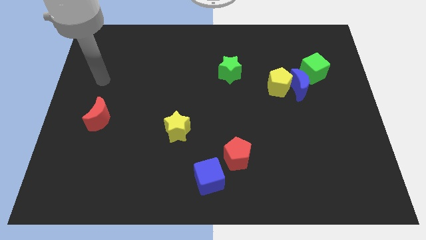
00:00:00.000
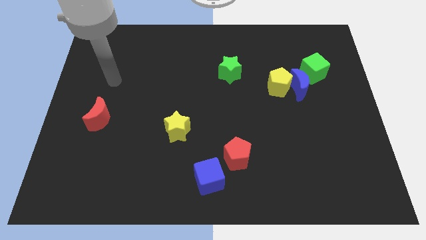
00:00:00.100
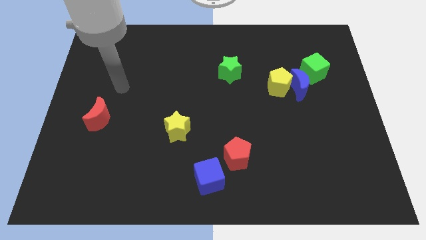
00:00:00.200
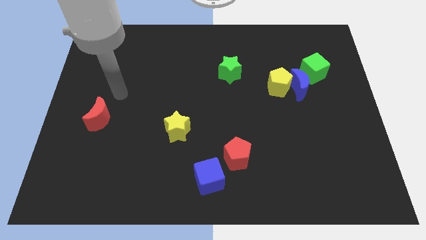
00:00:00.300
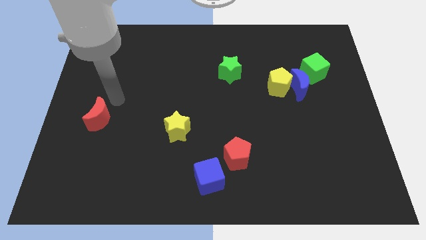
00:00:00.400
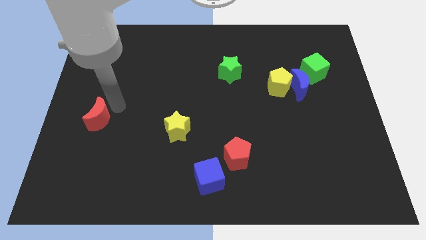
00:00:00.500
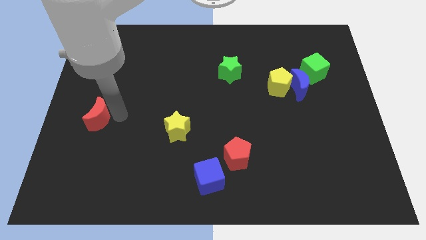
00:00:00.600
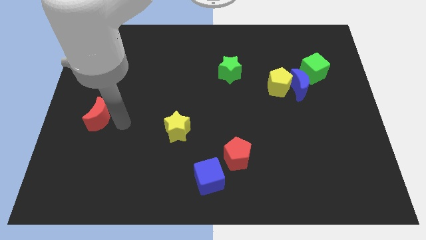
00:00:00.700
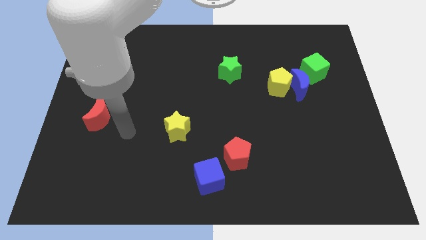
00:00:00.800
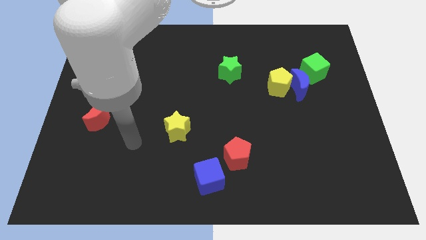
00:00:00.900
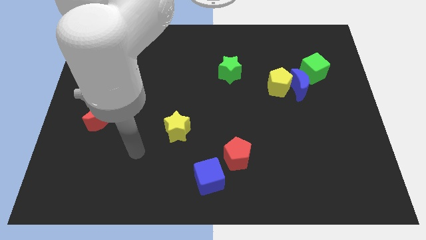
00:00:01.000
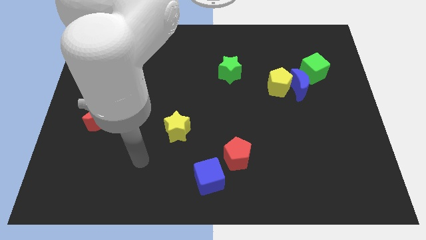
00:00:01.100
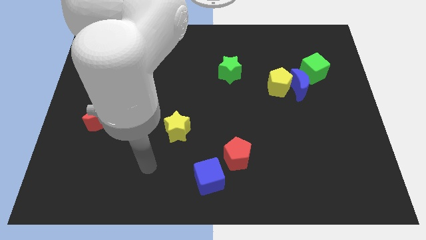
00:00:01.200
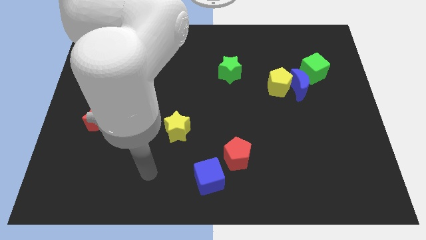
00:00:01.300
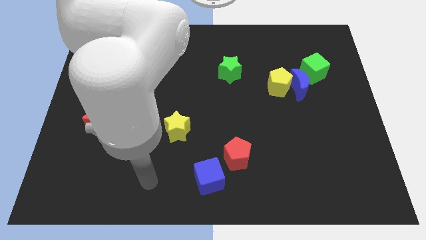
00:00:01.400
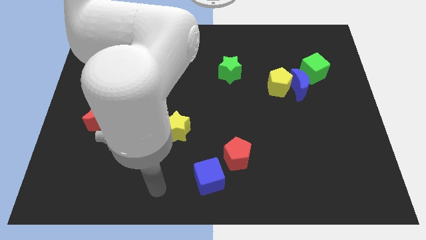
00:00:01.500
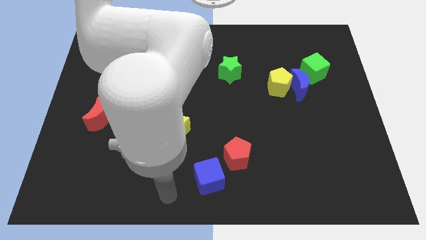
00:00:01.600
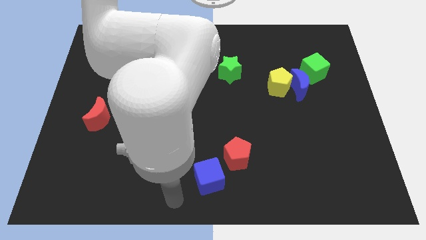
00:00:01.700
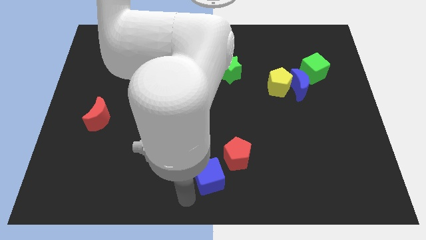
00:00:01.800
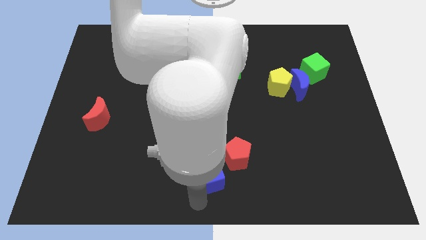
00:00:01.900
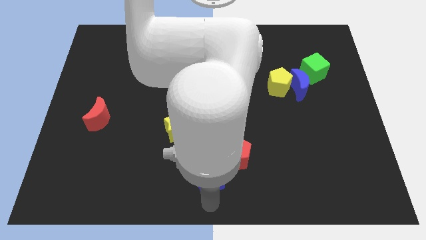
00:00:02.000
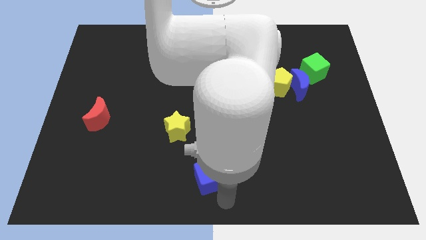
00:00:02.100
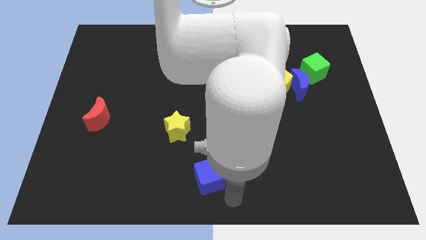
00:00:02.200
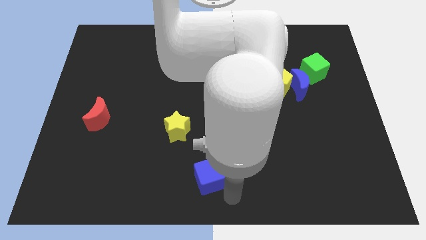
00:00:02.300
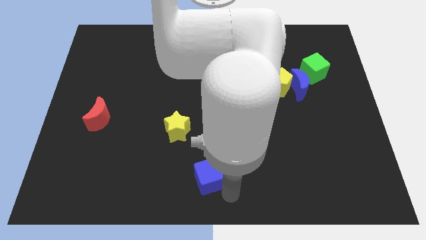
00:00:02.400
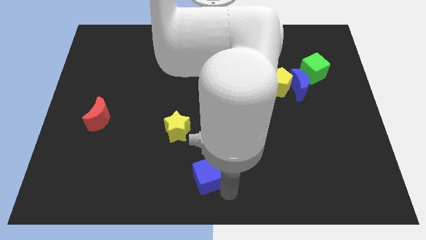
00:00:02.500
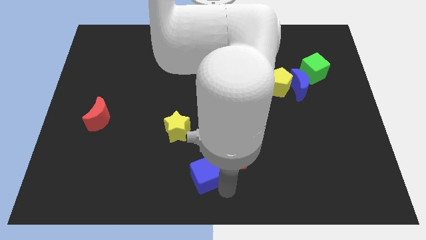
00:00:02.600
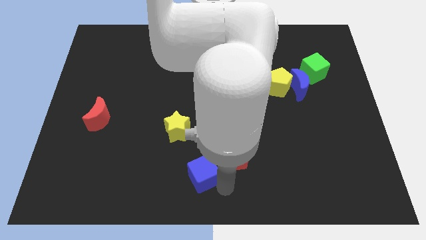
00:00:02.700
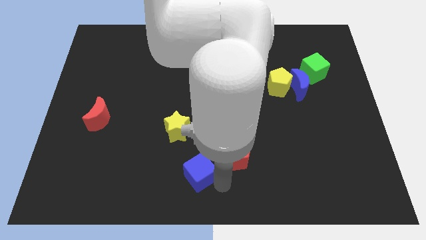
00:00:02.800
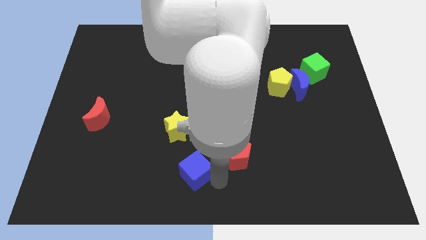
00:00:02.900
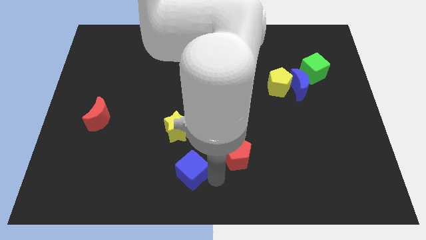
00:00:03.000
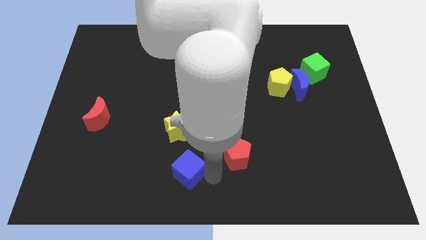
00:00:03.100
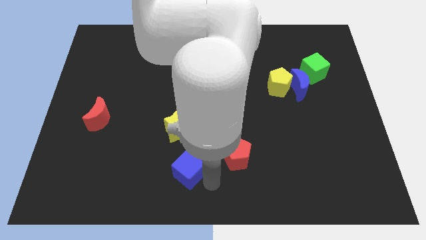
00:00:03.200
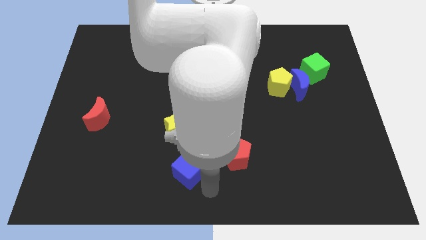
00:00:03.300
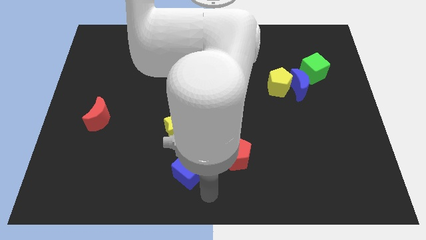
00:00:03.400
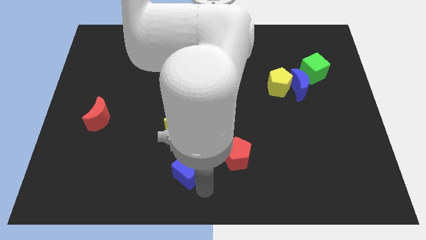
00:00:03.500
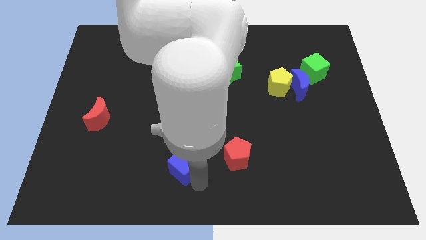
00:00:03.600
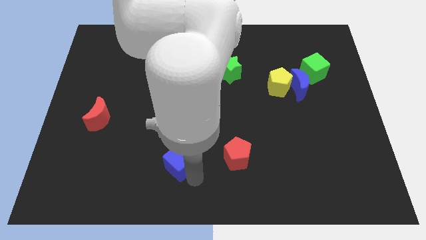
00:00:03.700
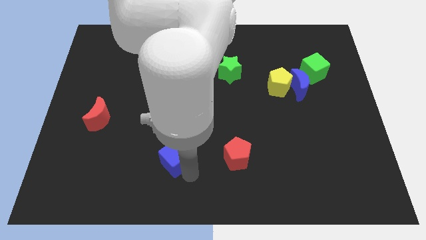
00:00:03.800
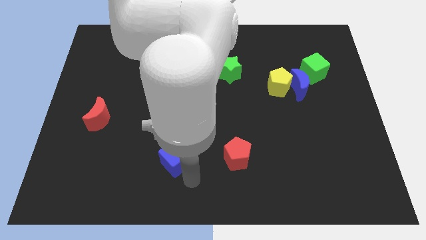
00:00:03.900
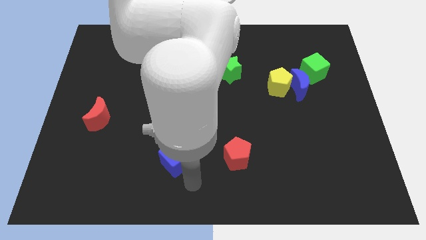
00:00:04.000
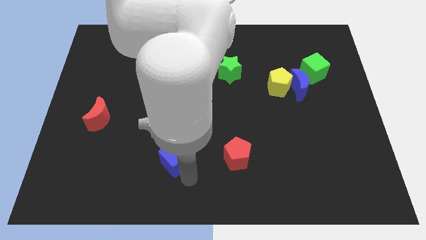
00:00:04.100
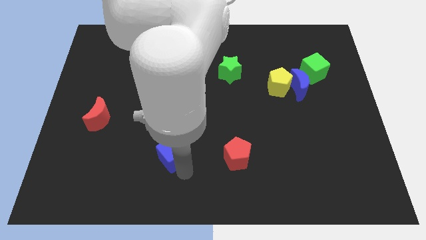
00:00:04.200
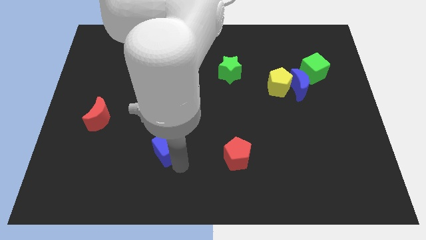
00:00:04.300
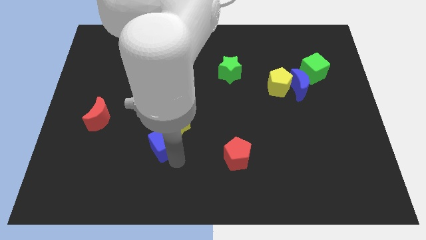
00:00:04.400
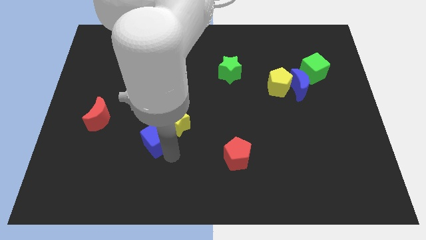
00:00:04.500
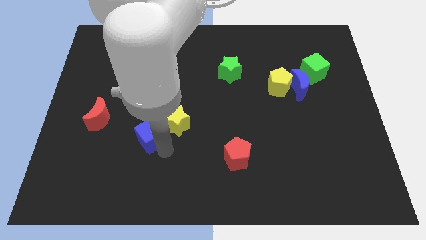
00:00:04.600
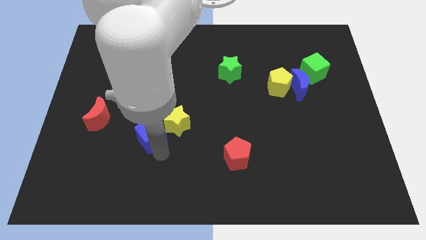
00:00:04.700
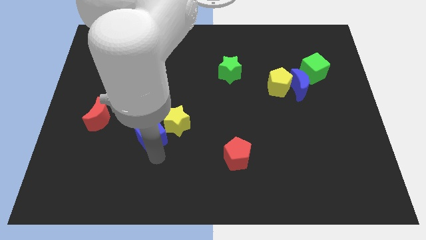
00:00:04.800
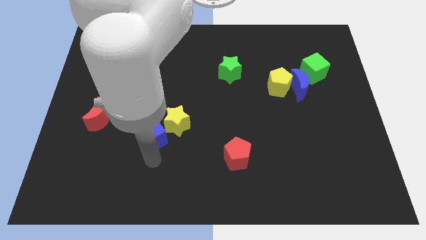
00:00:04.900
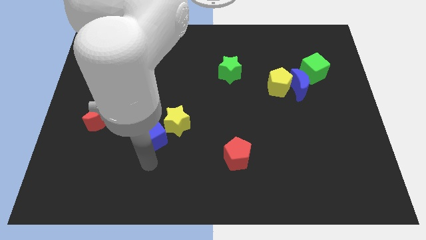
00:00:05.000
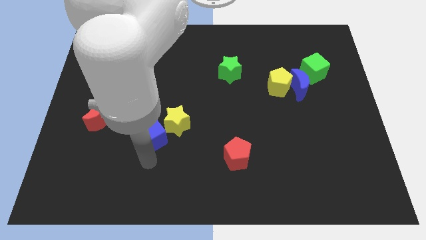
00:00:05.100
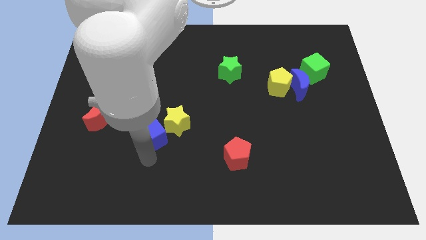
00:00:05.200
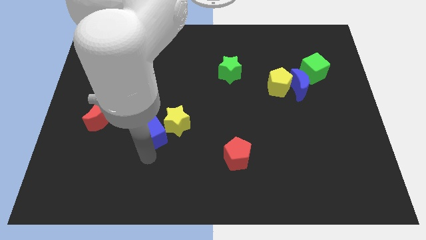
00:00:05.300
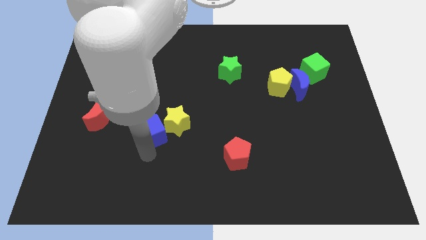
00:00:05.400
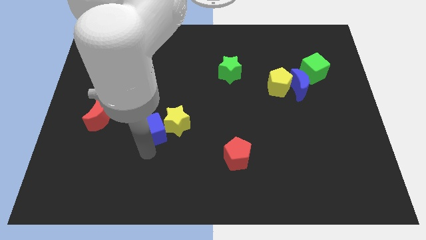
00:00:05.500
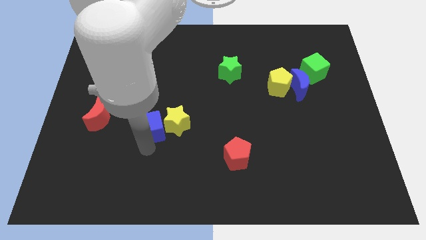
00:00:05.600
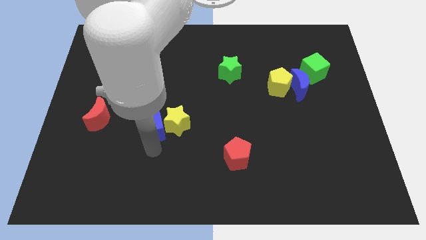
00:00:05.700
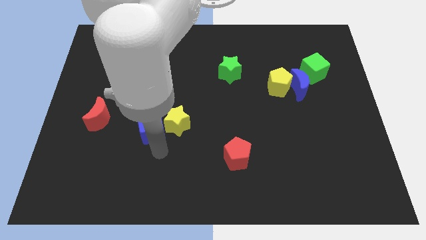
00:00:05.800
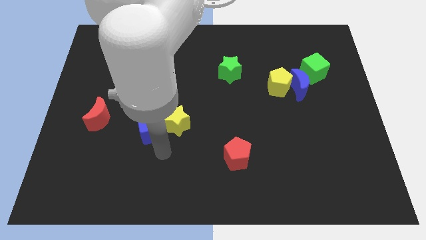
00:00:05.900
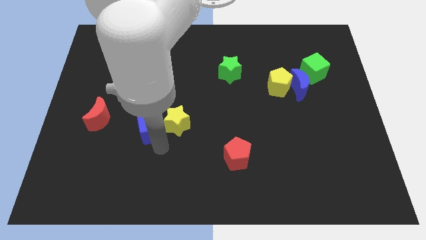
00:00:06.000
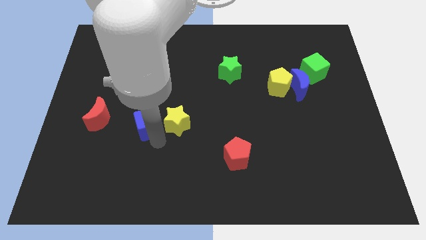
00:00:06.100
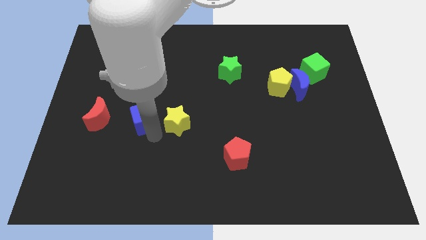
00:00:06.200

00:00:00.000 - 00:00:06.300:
push the blue cube upwards and to the left

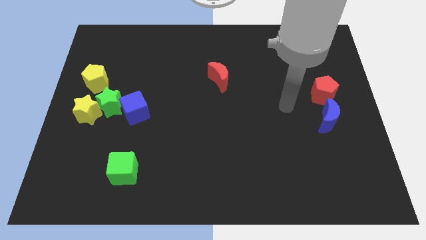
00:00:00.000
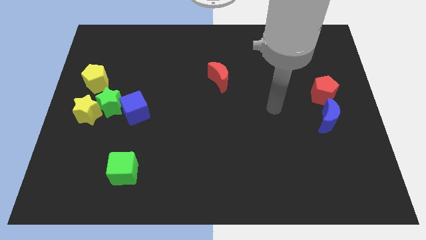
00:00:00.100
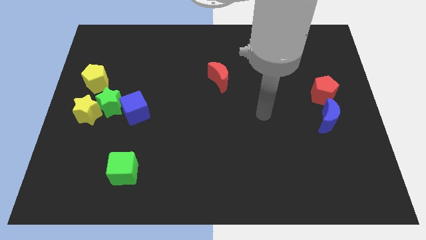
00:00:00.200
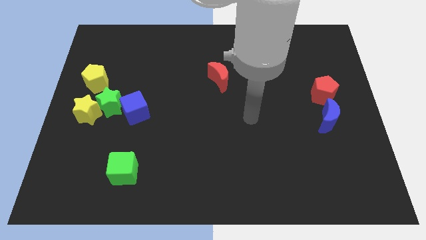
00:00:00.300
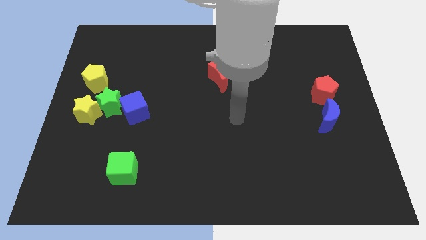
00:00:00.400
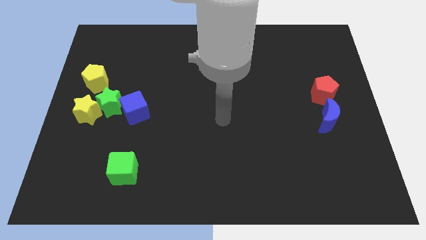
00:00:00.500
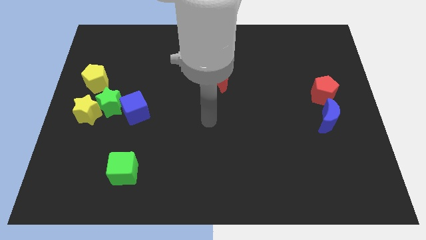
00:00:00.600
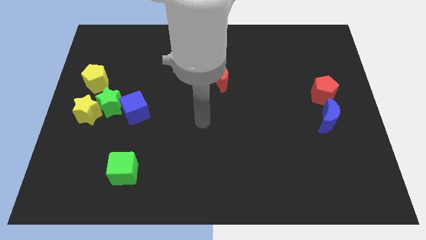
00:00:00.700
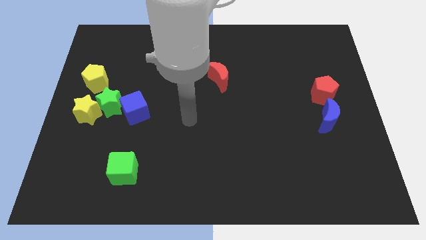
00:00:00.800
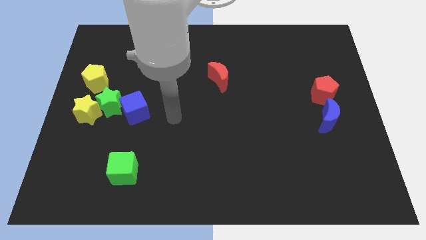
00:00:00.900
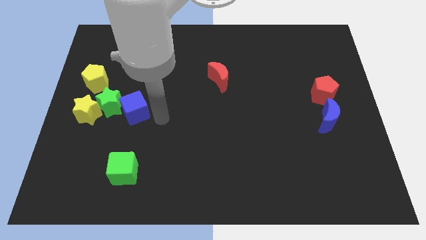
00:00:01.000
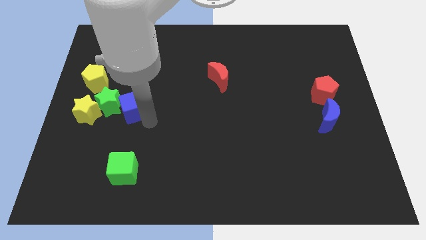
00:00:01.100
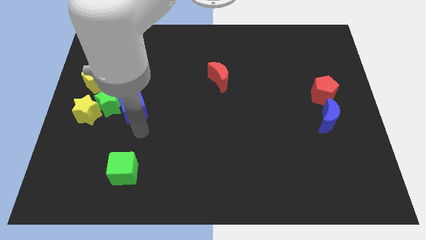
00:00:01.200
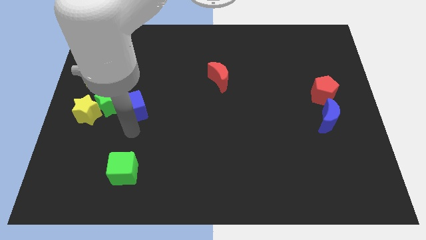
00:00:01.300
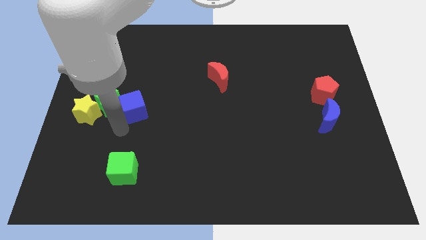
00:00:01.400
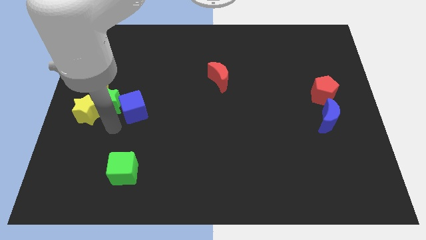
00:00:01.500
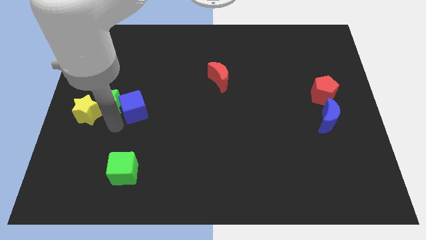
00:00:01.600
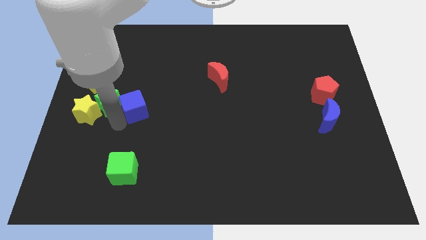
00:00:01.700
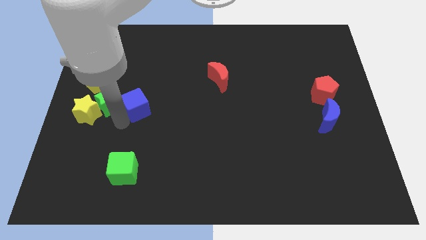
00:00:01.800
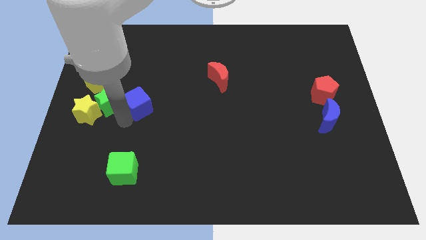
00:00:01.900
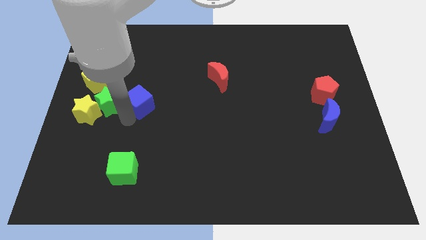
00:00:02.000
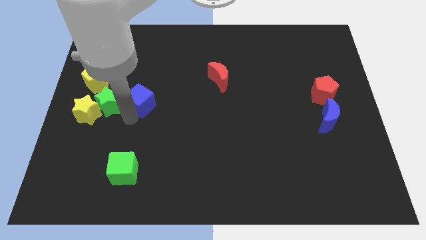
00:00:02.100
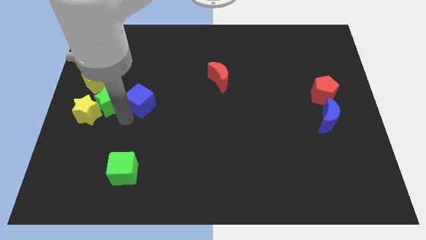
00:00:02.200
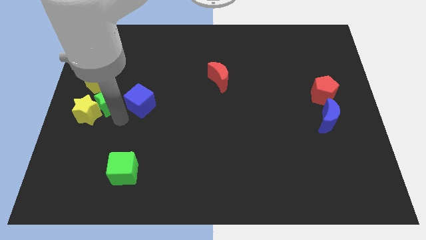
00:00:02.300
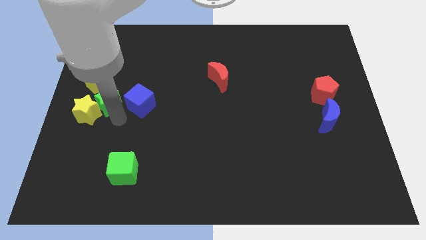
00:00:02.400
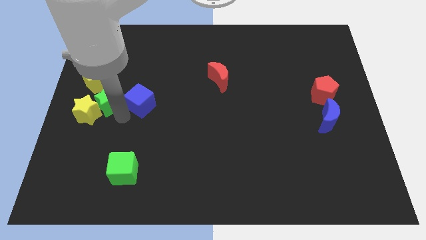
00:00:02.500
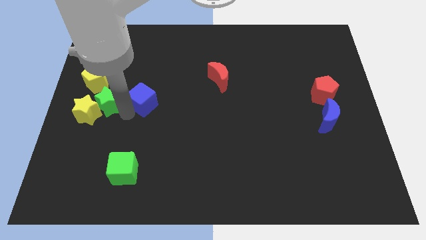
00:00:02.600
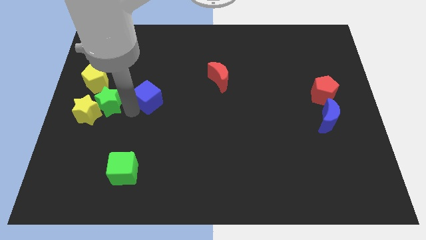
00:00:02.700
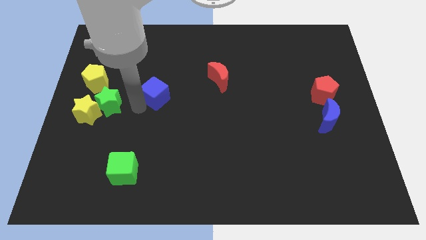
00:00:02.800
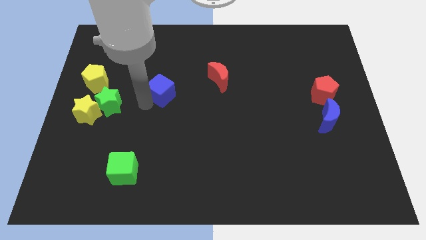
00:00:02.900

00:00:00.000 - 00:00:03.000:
slightly move the blue cube diagonally up and right
